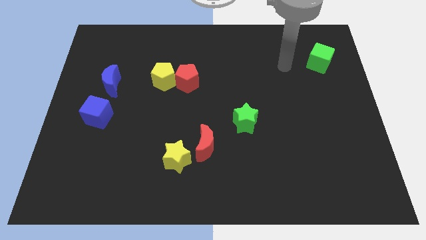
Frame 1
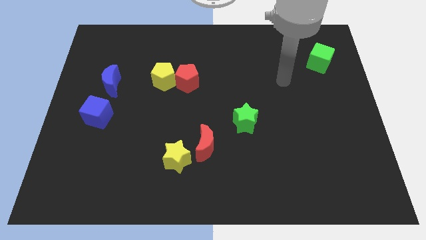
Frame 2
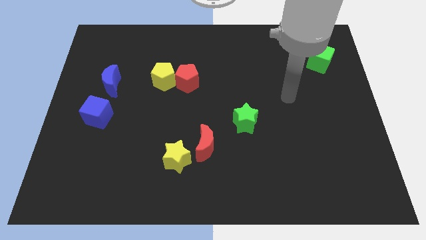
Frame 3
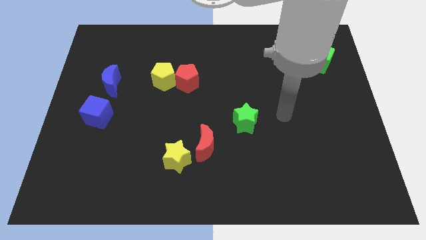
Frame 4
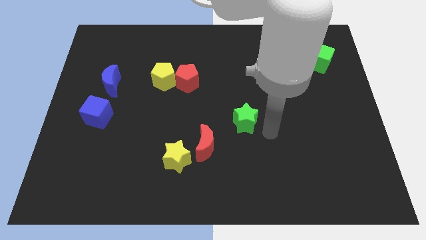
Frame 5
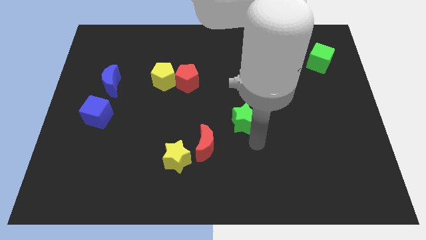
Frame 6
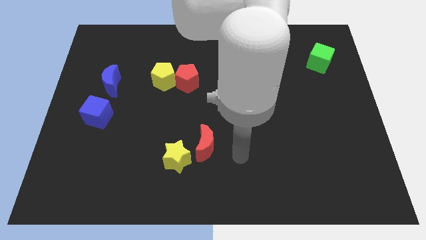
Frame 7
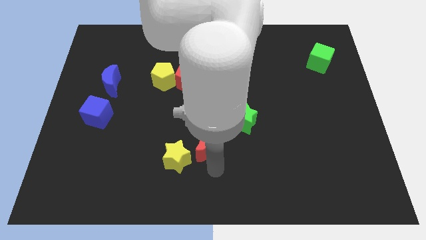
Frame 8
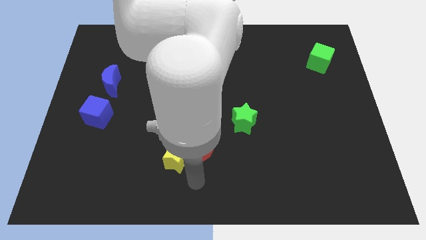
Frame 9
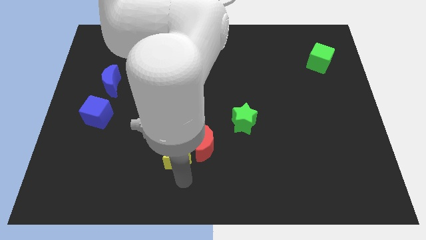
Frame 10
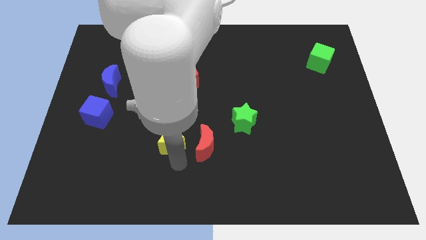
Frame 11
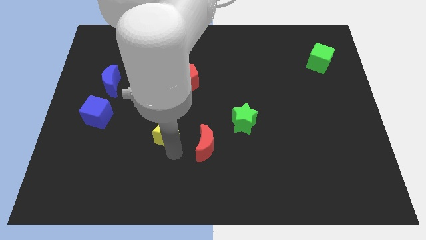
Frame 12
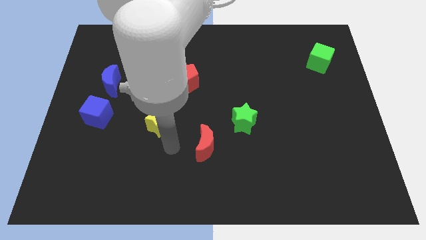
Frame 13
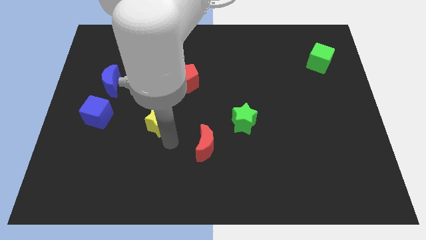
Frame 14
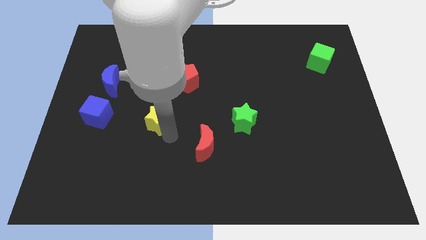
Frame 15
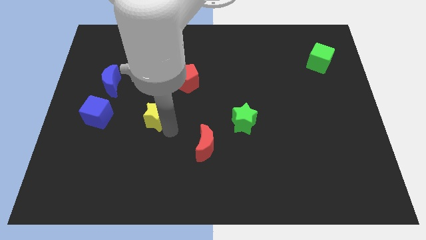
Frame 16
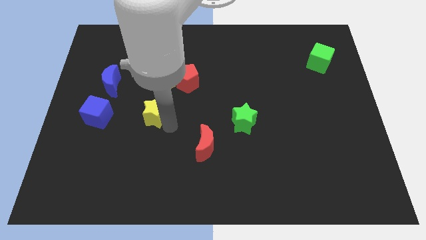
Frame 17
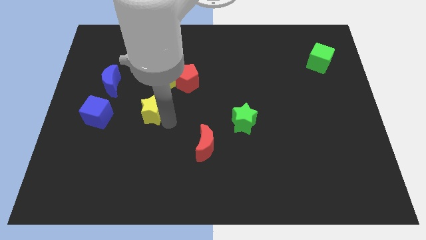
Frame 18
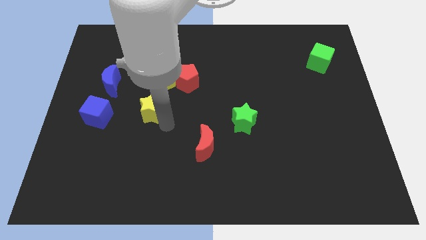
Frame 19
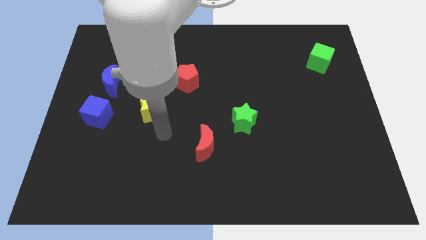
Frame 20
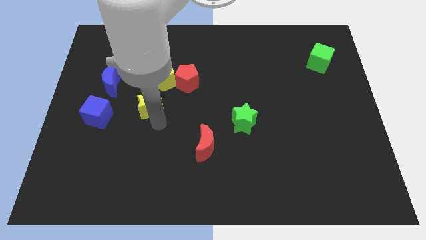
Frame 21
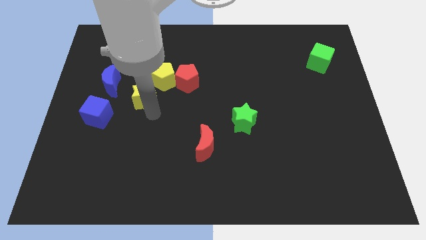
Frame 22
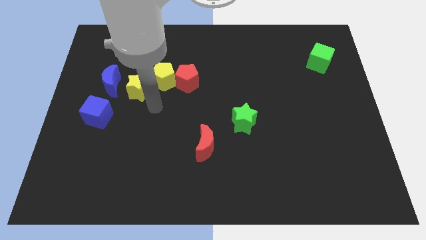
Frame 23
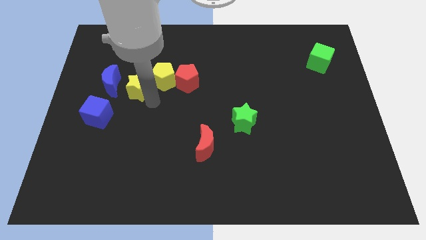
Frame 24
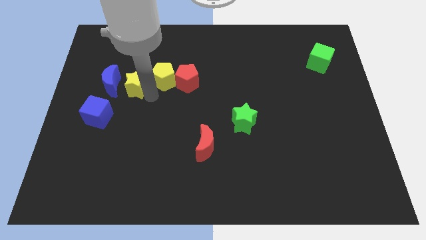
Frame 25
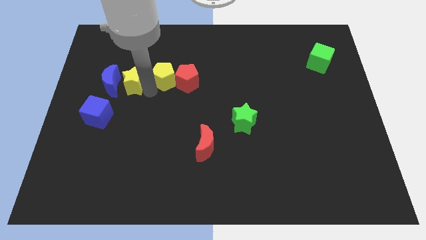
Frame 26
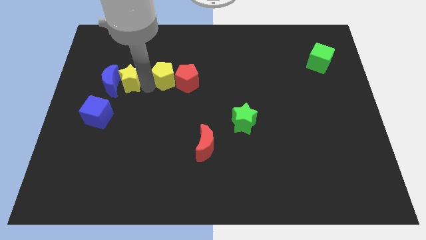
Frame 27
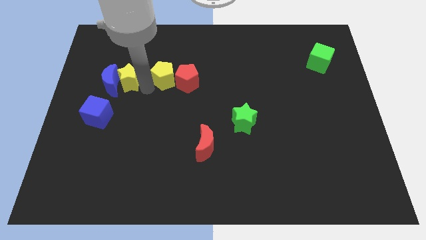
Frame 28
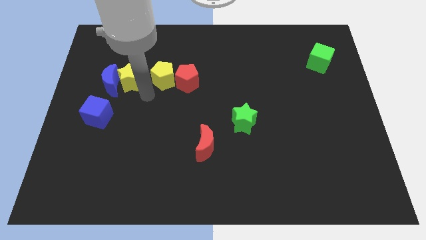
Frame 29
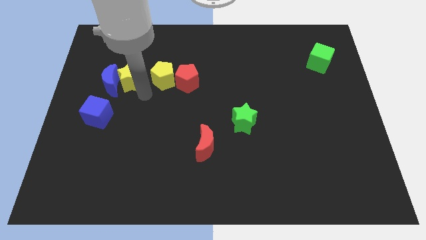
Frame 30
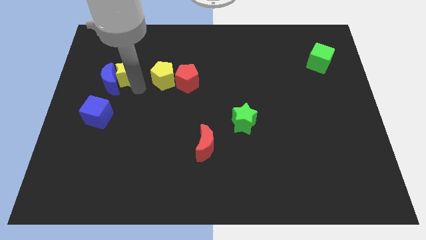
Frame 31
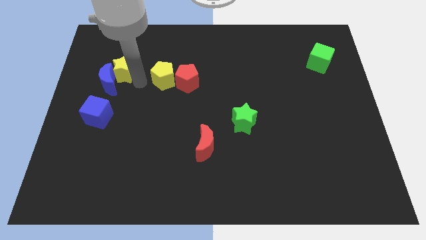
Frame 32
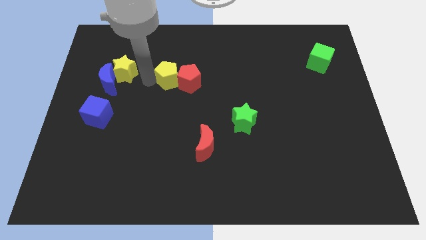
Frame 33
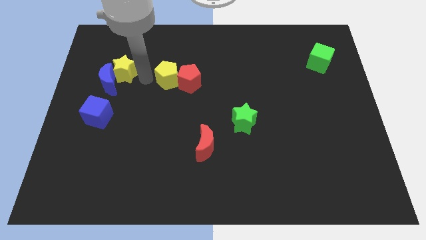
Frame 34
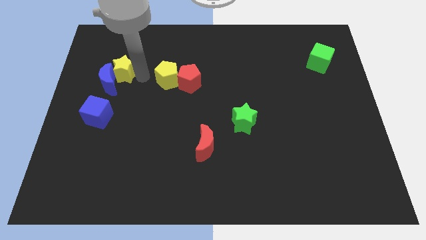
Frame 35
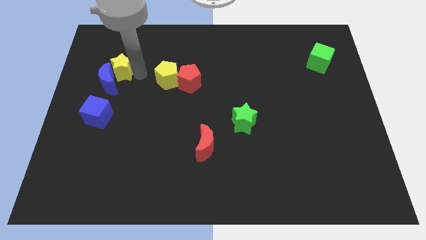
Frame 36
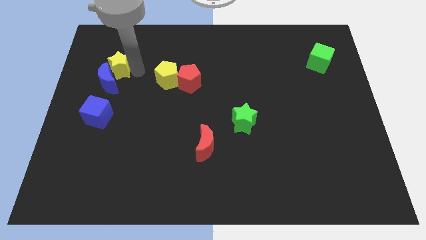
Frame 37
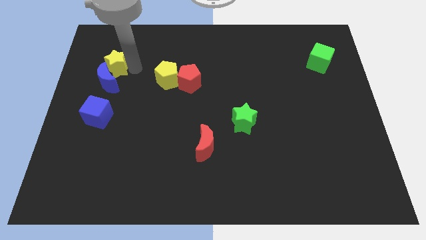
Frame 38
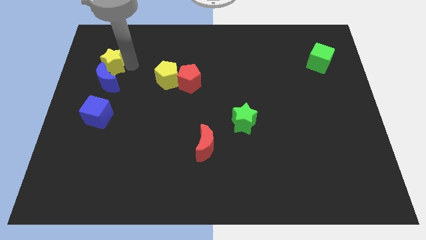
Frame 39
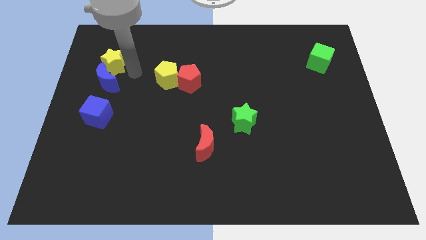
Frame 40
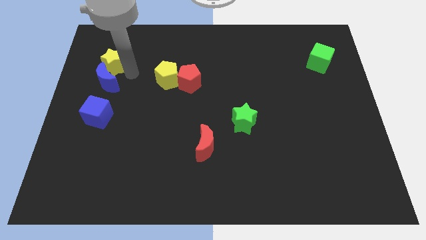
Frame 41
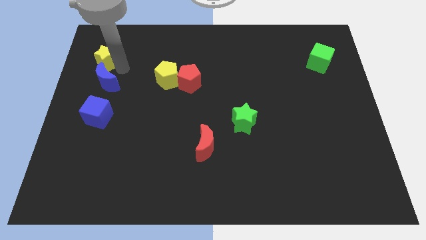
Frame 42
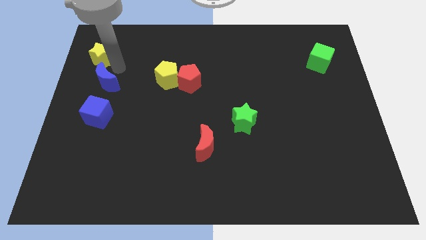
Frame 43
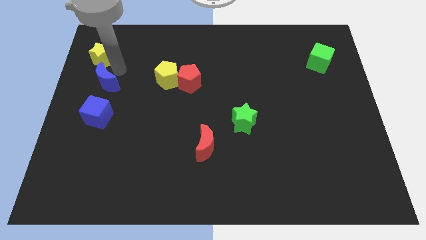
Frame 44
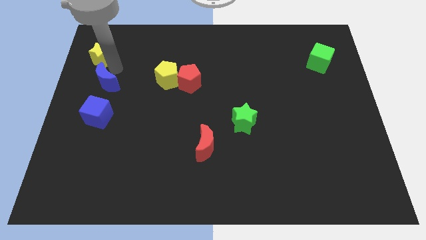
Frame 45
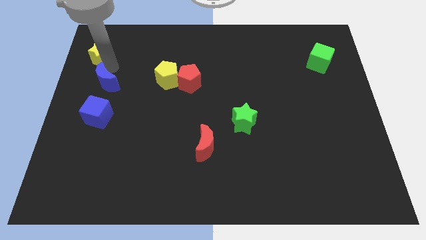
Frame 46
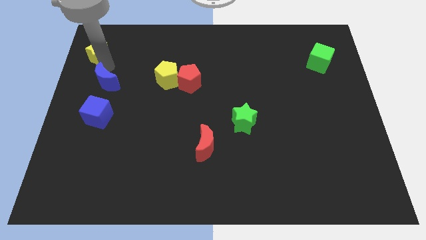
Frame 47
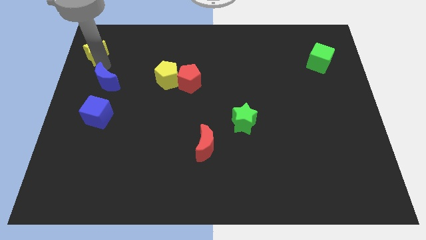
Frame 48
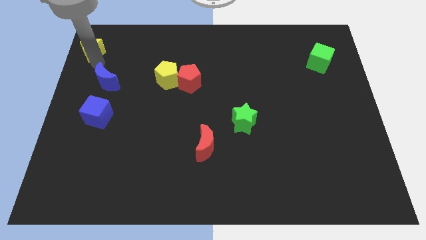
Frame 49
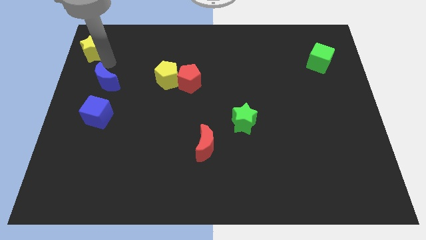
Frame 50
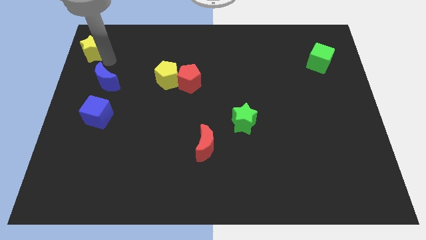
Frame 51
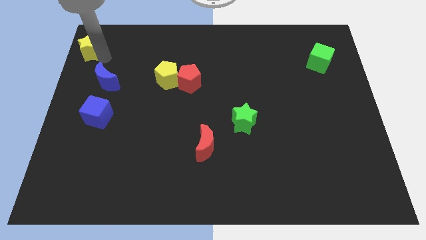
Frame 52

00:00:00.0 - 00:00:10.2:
push the yellow star to the upper left corner

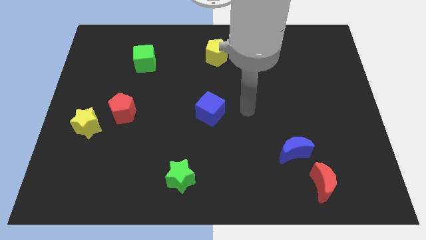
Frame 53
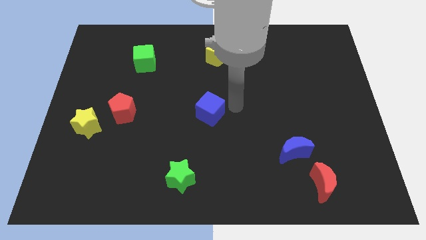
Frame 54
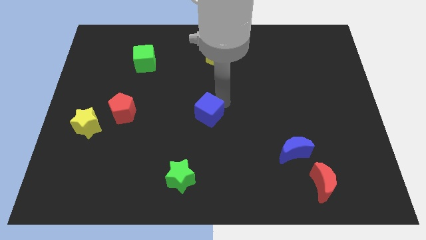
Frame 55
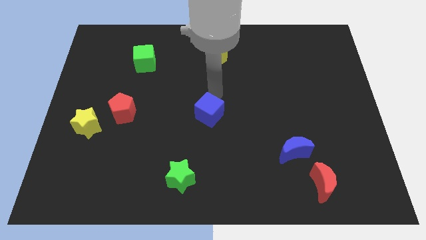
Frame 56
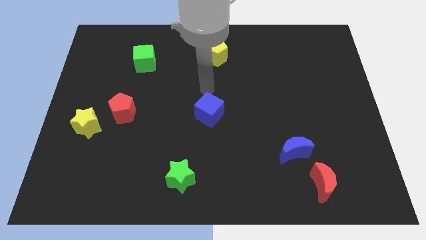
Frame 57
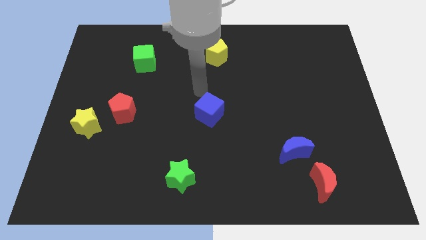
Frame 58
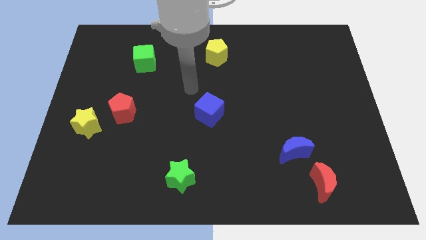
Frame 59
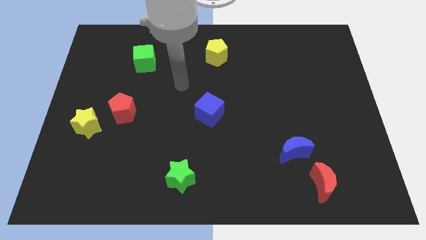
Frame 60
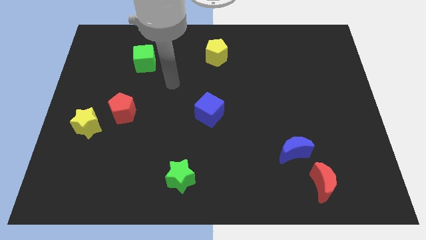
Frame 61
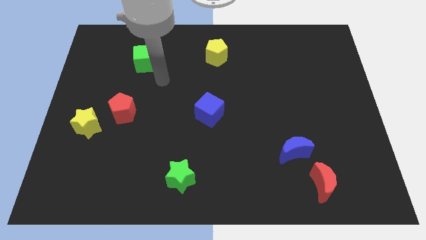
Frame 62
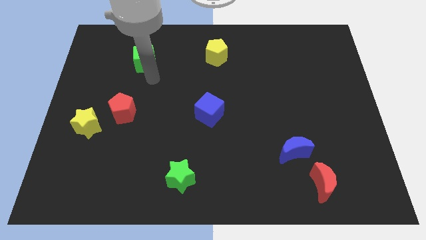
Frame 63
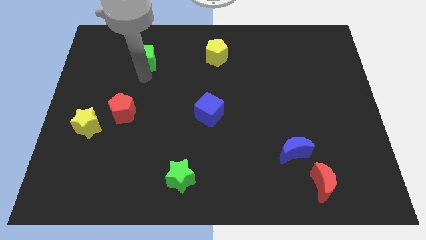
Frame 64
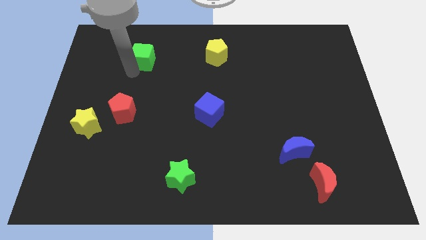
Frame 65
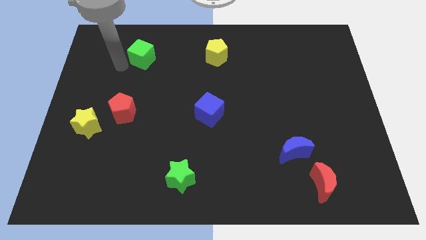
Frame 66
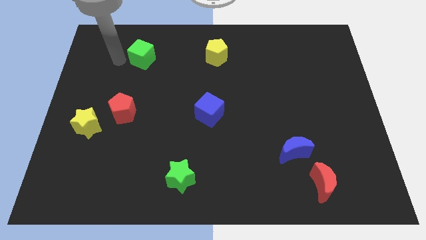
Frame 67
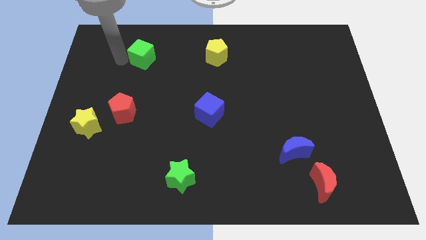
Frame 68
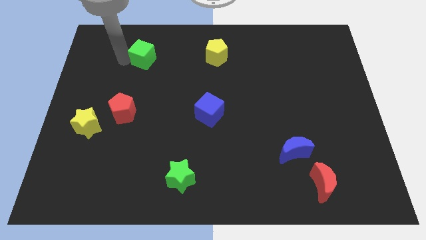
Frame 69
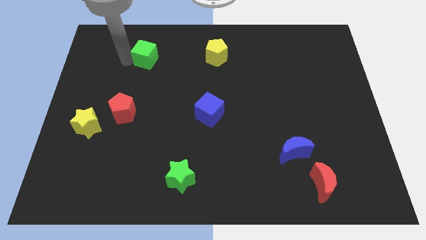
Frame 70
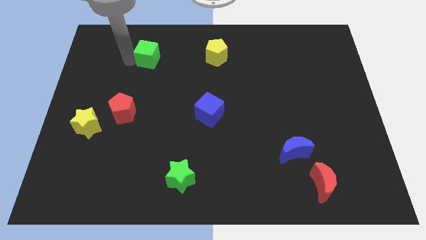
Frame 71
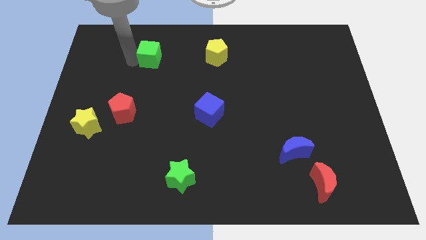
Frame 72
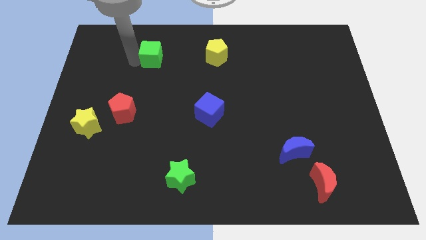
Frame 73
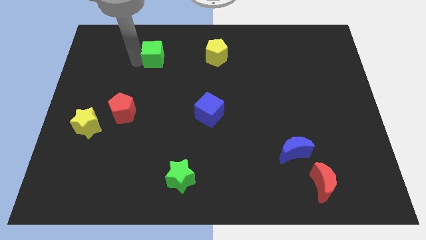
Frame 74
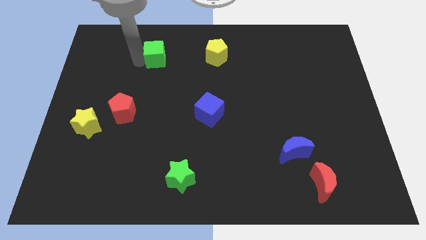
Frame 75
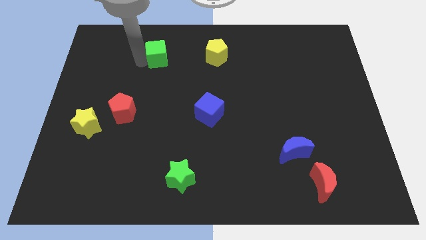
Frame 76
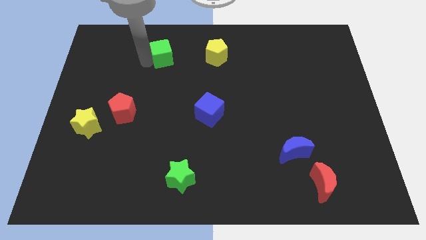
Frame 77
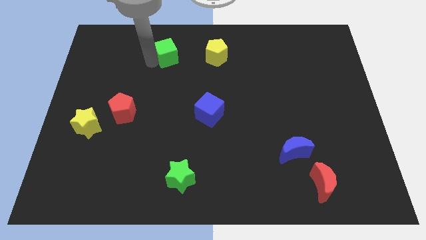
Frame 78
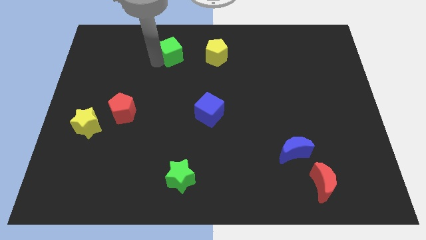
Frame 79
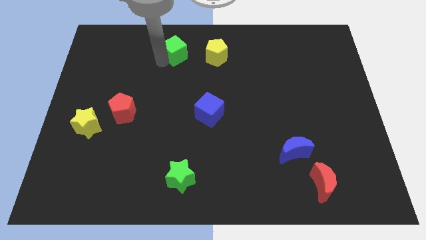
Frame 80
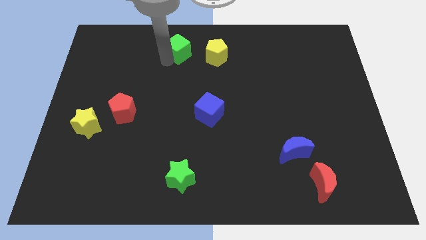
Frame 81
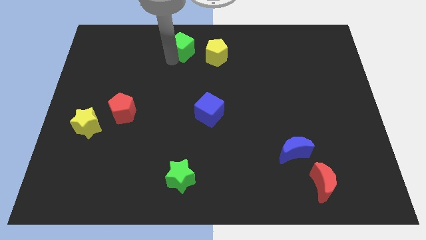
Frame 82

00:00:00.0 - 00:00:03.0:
move the green cube to the top
